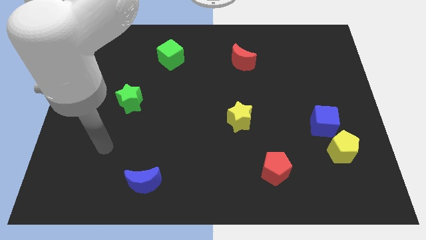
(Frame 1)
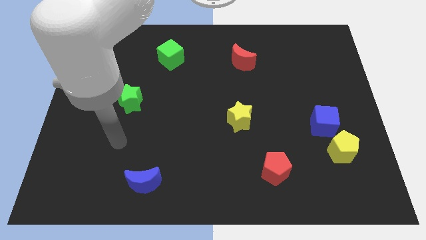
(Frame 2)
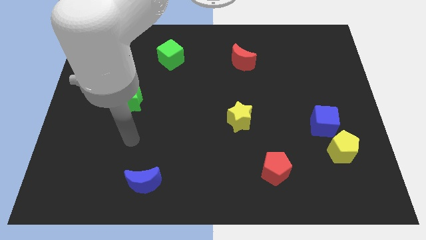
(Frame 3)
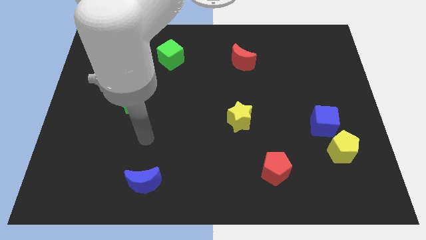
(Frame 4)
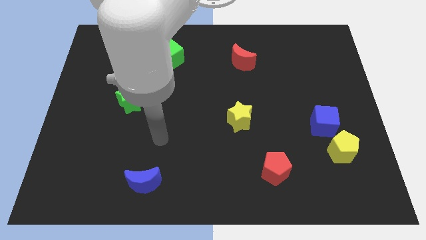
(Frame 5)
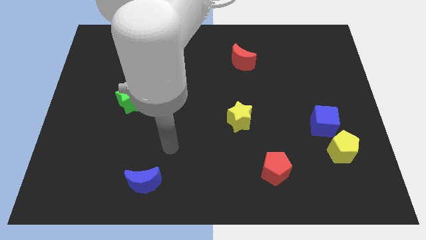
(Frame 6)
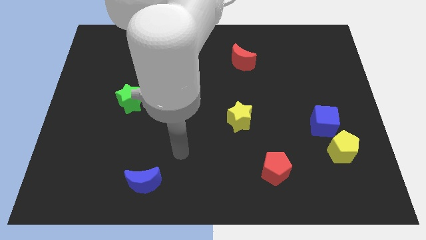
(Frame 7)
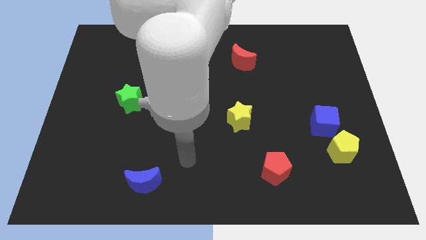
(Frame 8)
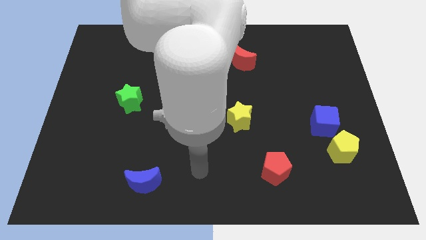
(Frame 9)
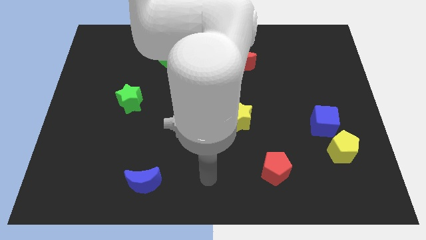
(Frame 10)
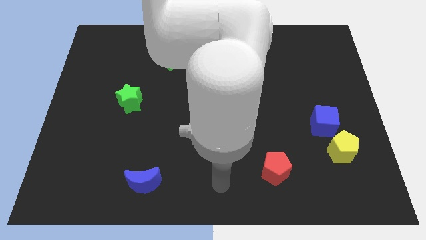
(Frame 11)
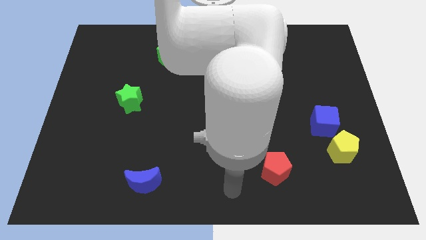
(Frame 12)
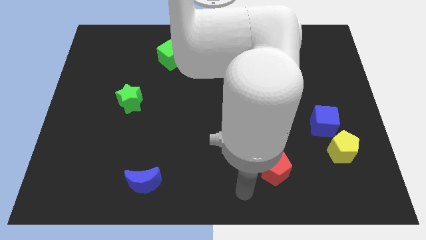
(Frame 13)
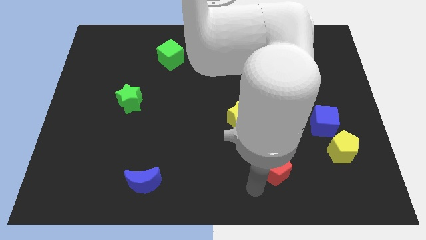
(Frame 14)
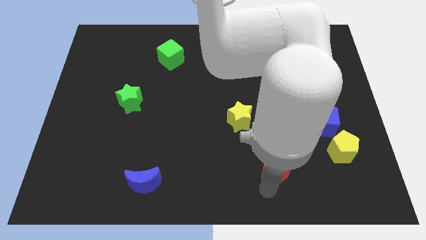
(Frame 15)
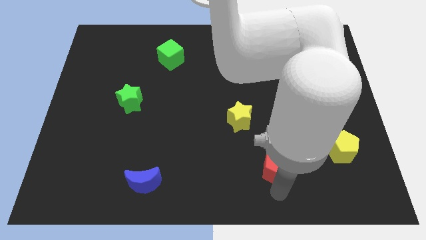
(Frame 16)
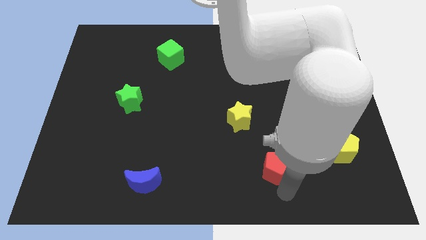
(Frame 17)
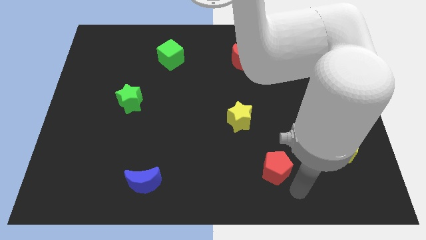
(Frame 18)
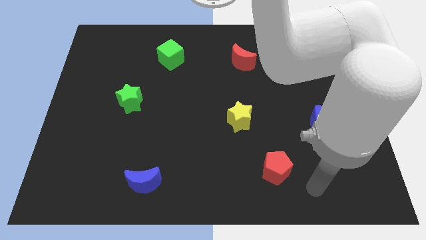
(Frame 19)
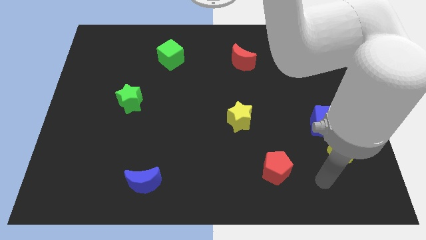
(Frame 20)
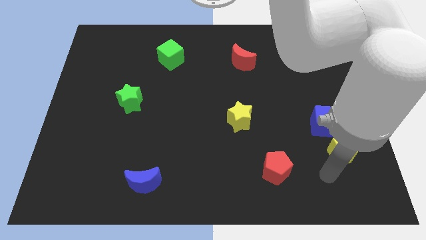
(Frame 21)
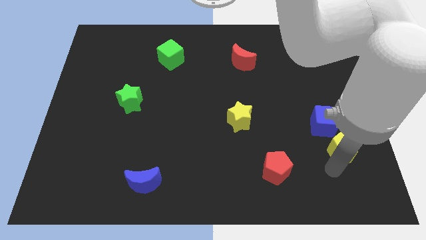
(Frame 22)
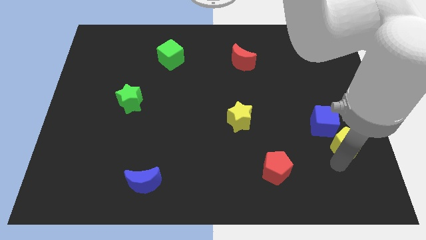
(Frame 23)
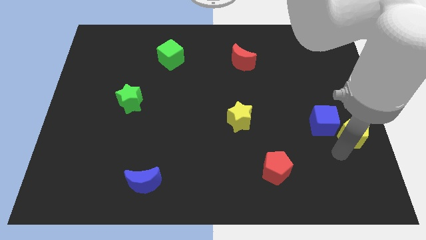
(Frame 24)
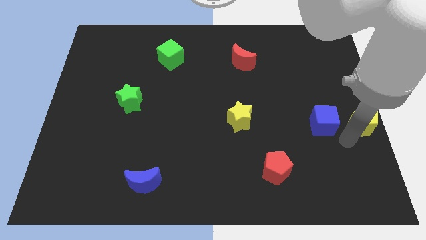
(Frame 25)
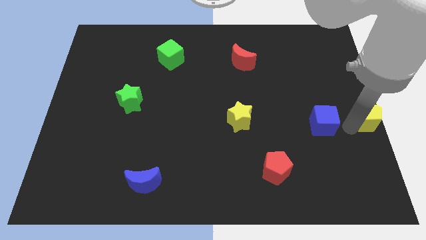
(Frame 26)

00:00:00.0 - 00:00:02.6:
pull the blue cube apart from the yellow pentagon

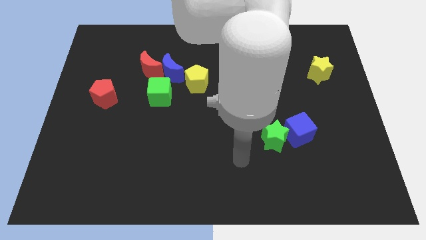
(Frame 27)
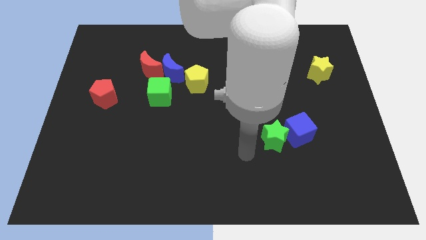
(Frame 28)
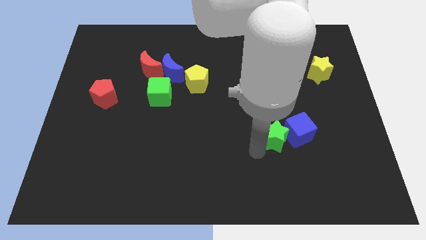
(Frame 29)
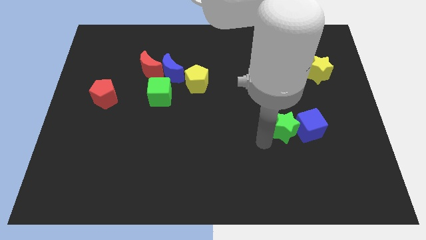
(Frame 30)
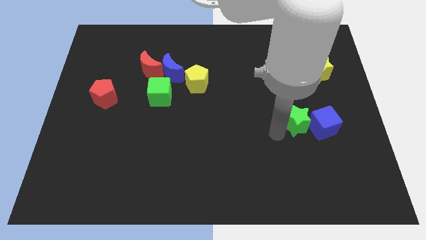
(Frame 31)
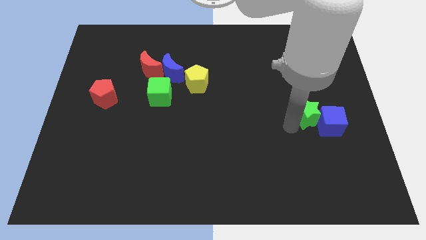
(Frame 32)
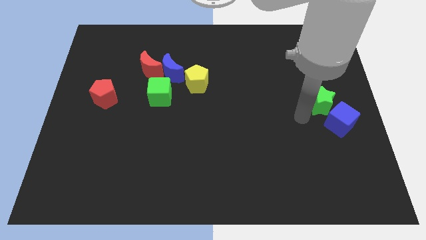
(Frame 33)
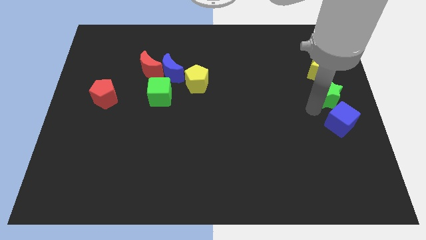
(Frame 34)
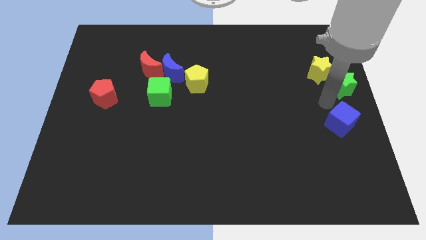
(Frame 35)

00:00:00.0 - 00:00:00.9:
pull the blue cube apart from the green star

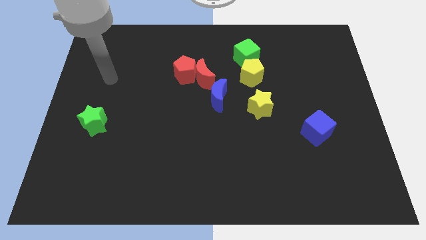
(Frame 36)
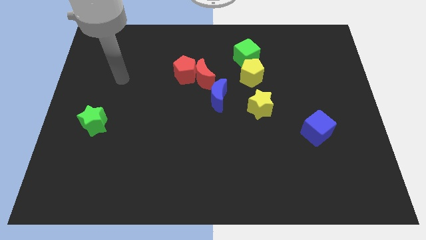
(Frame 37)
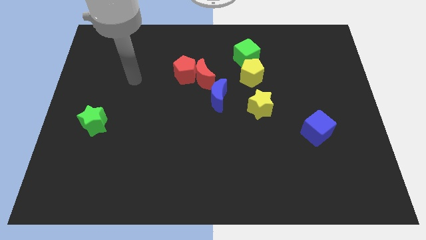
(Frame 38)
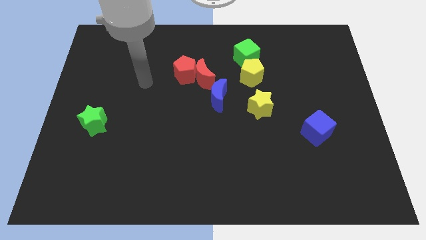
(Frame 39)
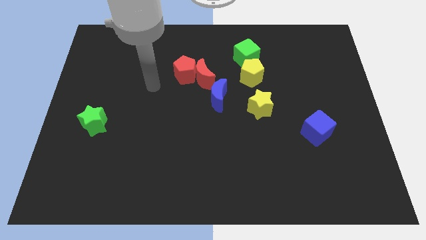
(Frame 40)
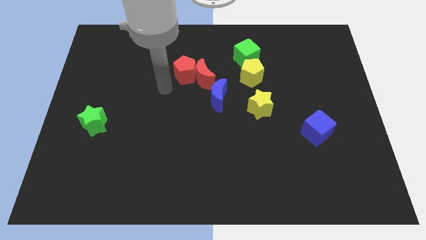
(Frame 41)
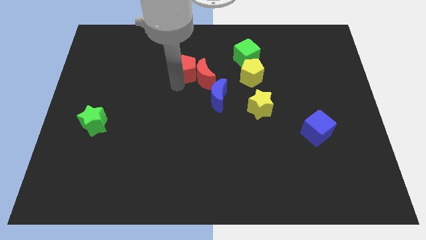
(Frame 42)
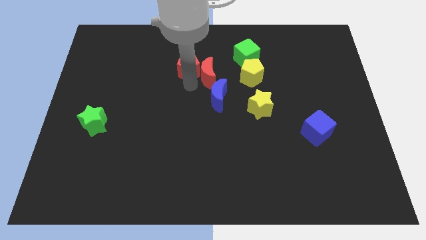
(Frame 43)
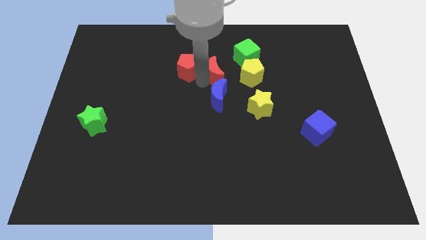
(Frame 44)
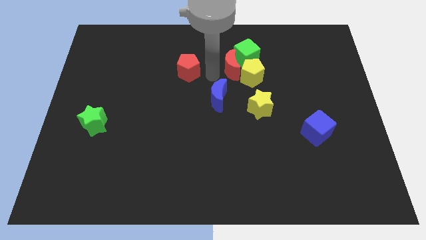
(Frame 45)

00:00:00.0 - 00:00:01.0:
move the red pentagon away from the red moon

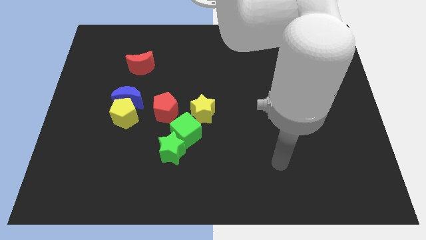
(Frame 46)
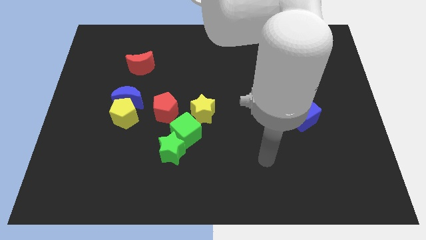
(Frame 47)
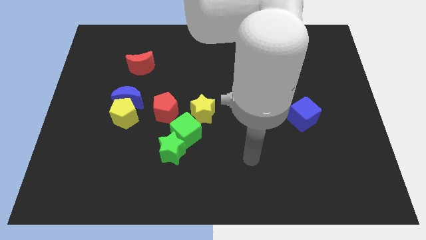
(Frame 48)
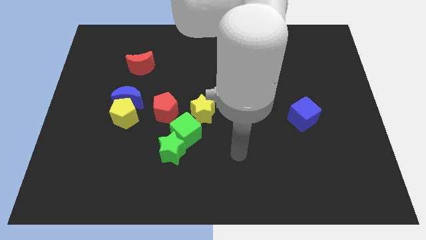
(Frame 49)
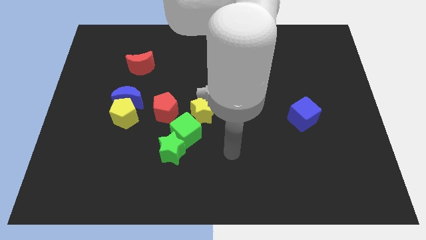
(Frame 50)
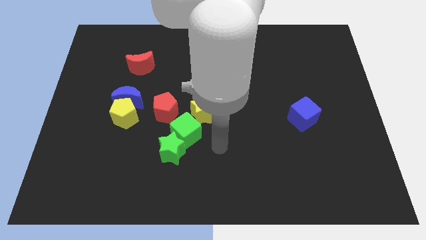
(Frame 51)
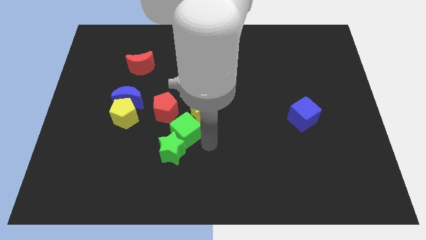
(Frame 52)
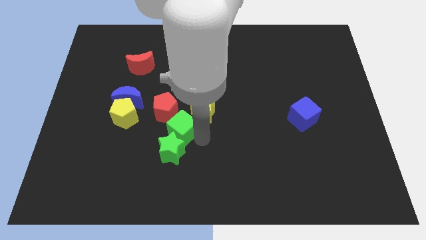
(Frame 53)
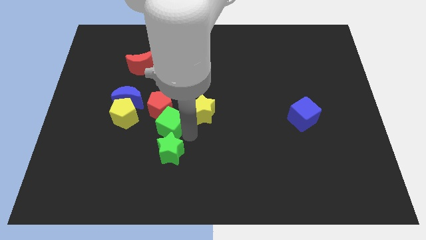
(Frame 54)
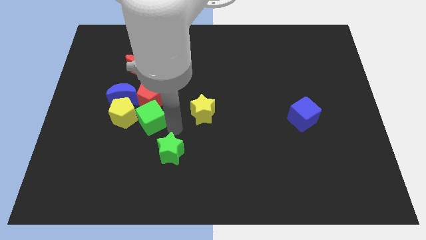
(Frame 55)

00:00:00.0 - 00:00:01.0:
separate the green star from the green cube

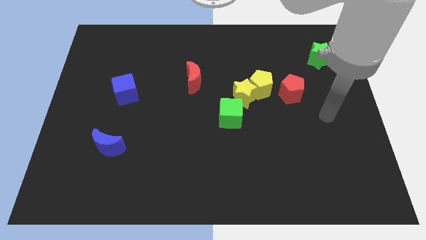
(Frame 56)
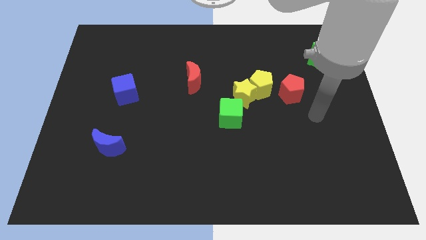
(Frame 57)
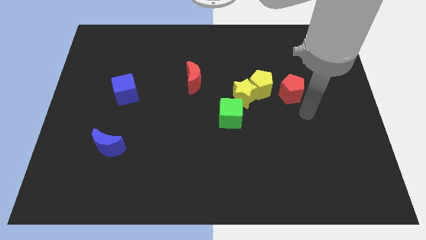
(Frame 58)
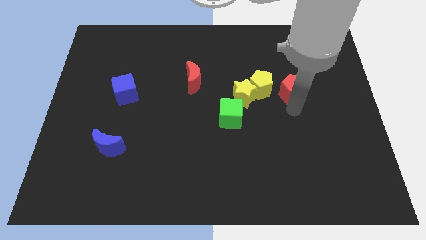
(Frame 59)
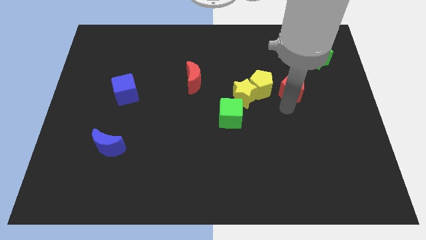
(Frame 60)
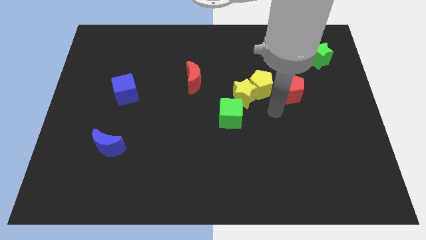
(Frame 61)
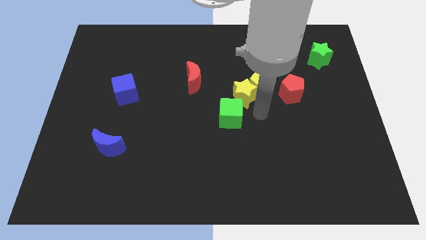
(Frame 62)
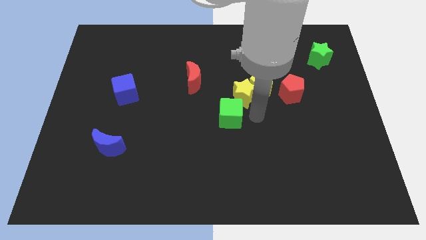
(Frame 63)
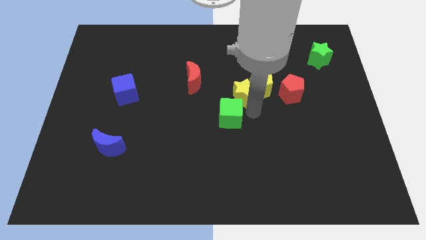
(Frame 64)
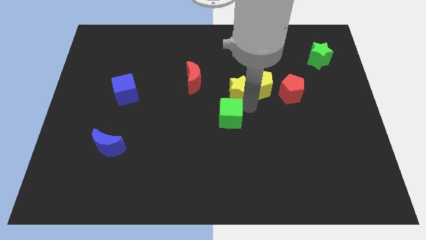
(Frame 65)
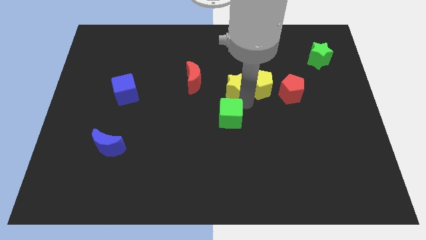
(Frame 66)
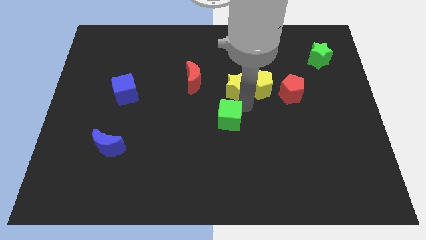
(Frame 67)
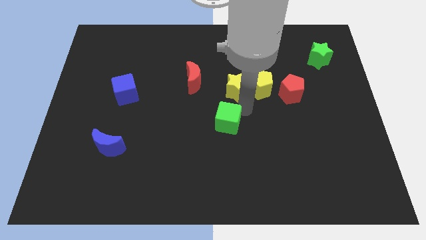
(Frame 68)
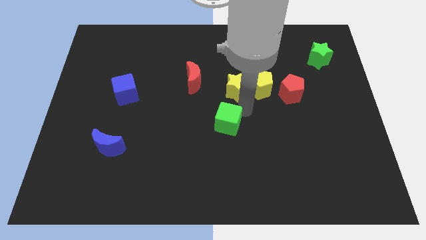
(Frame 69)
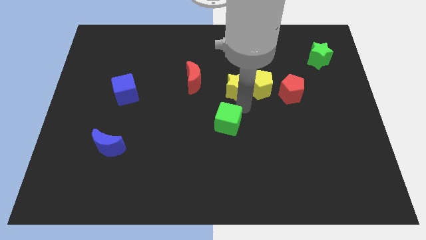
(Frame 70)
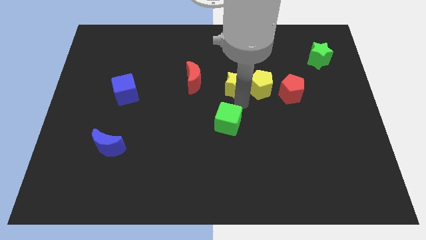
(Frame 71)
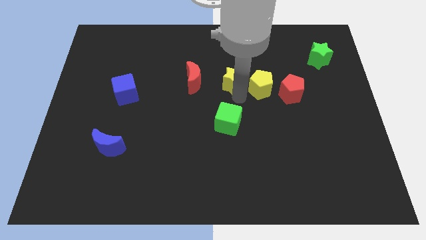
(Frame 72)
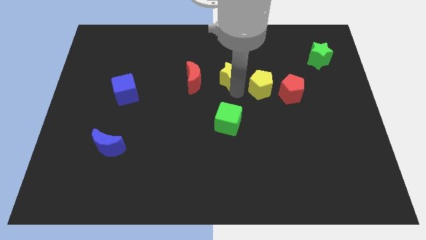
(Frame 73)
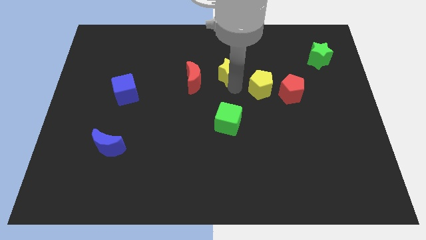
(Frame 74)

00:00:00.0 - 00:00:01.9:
separate the yellow star from the yellow pentagon and green cube

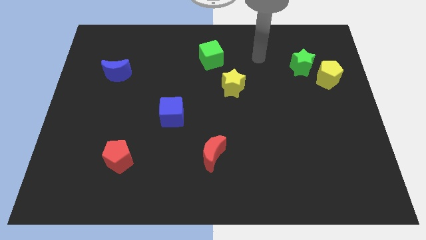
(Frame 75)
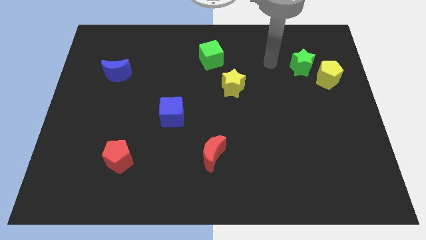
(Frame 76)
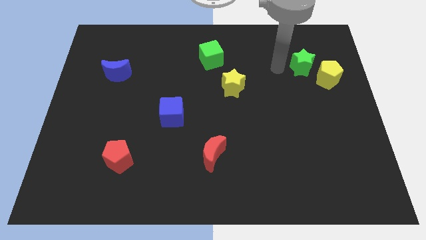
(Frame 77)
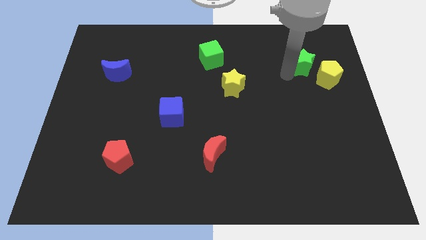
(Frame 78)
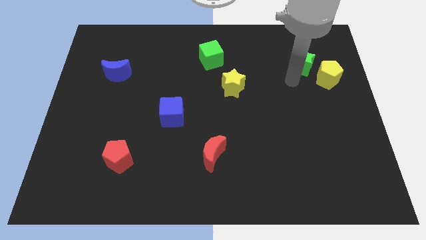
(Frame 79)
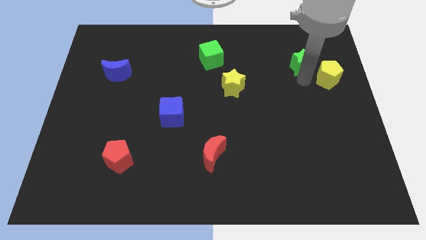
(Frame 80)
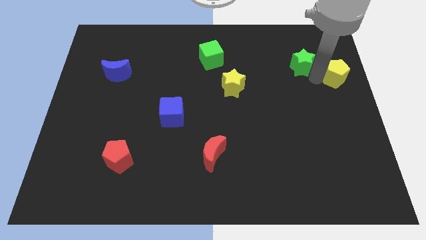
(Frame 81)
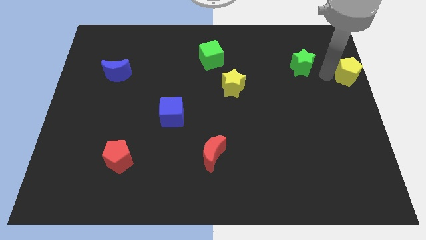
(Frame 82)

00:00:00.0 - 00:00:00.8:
move the green star away from the yellow pentagon

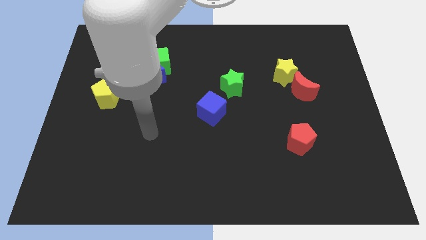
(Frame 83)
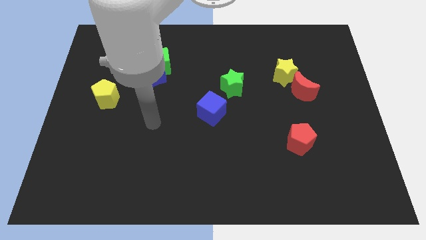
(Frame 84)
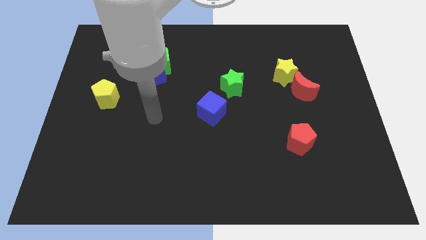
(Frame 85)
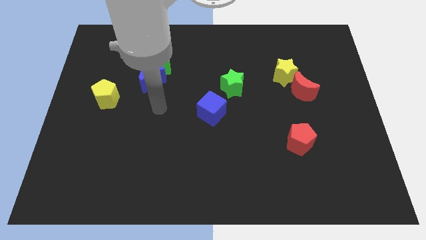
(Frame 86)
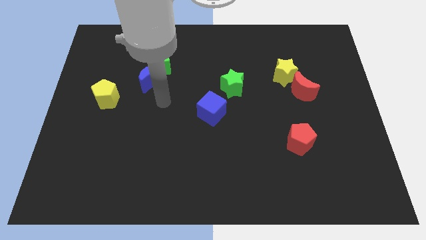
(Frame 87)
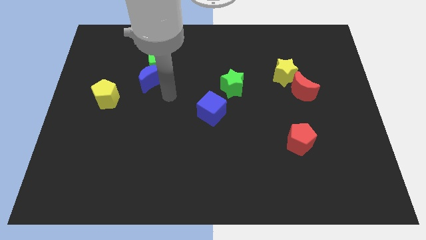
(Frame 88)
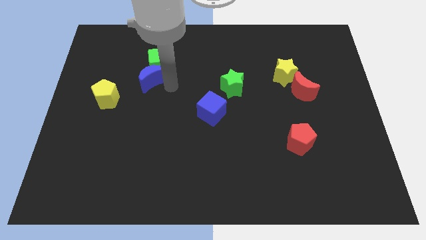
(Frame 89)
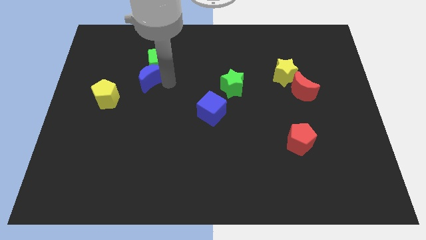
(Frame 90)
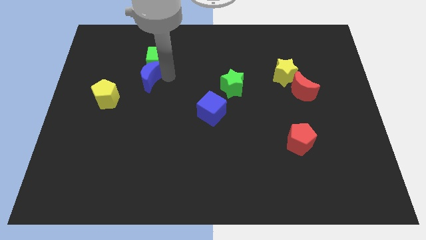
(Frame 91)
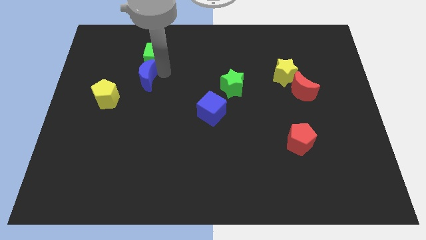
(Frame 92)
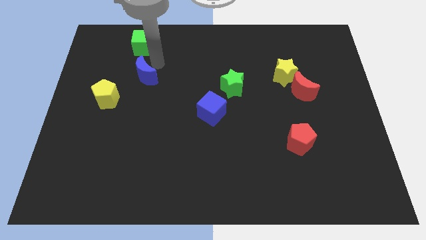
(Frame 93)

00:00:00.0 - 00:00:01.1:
separate the blue moon from the green cube
